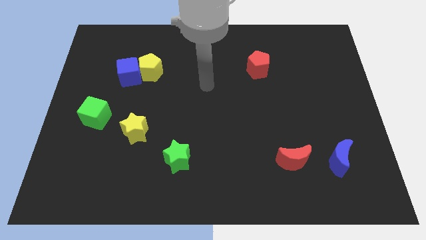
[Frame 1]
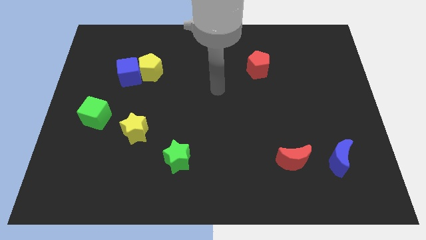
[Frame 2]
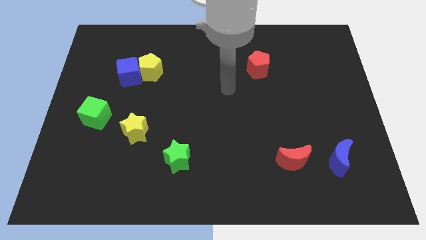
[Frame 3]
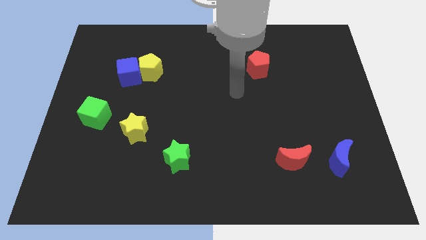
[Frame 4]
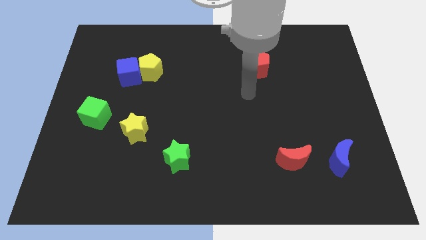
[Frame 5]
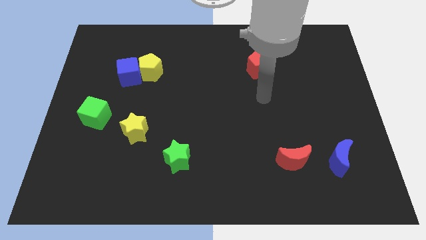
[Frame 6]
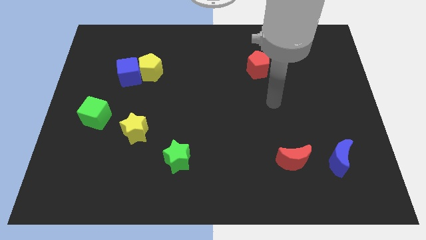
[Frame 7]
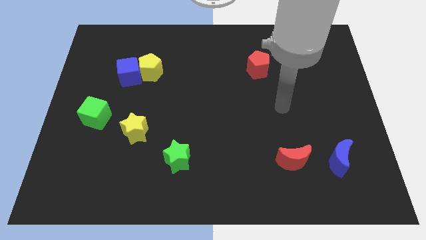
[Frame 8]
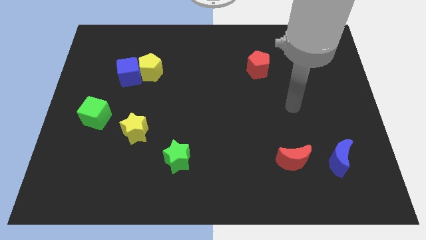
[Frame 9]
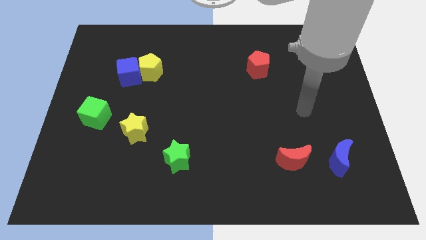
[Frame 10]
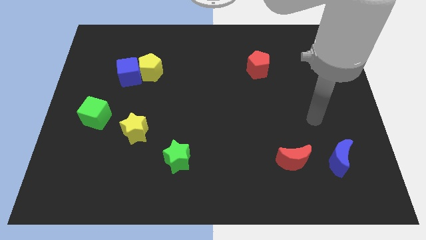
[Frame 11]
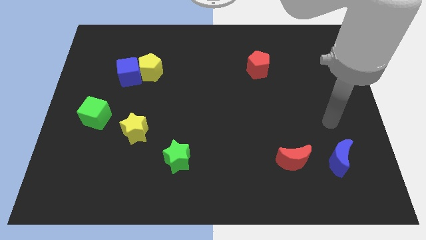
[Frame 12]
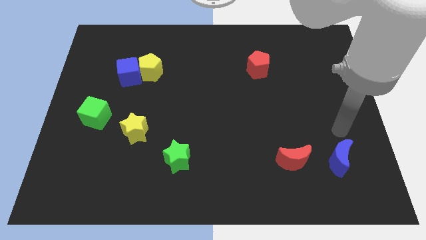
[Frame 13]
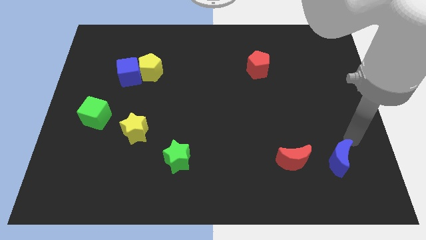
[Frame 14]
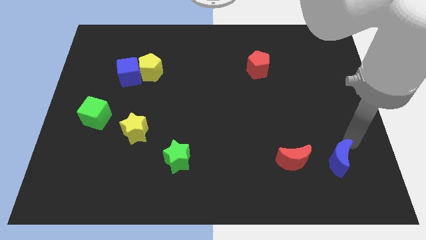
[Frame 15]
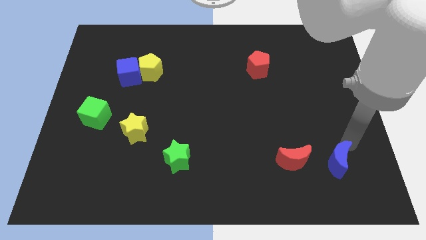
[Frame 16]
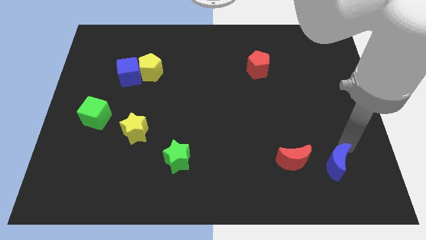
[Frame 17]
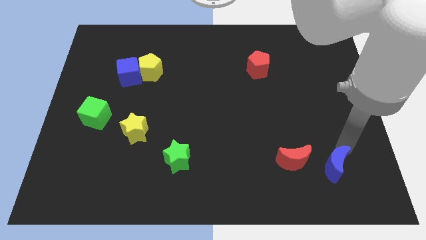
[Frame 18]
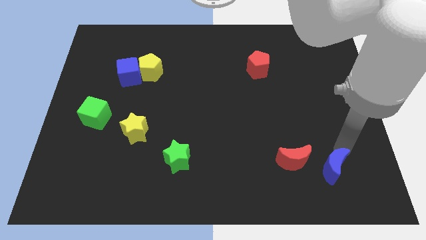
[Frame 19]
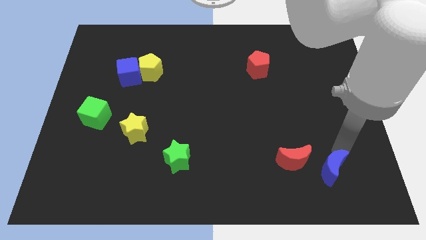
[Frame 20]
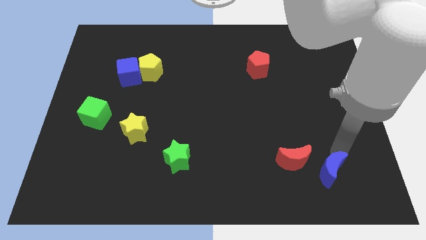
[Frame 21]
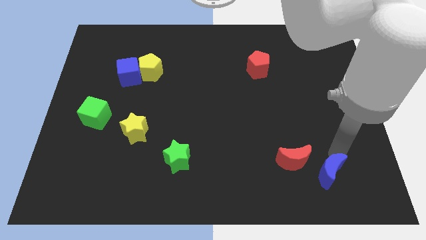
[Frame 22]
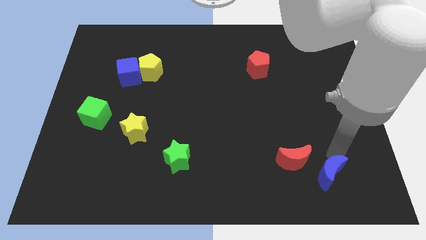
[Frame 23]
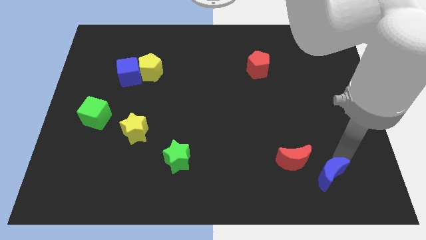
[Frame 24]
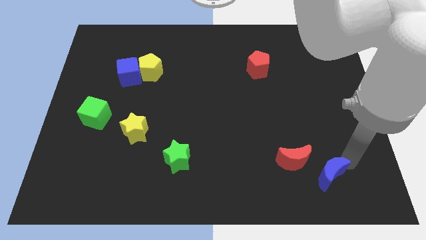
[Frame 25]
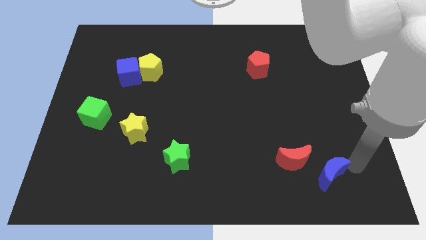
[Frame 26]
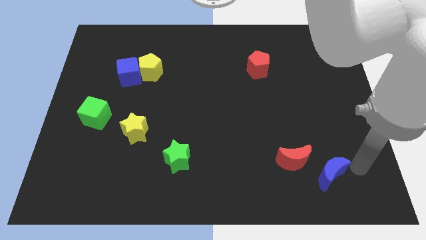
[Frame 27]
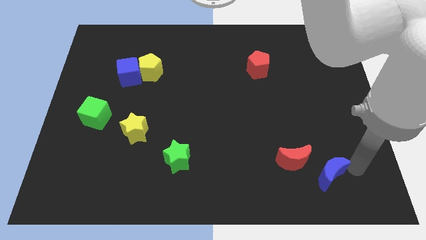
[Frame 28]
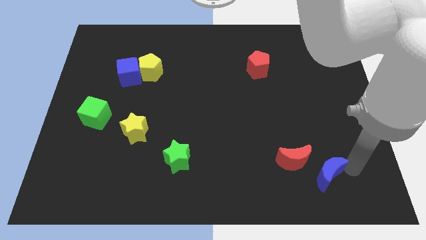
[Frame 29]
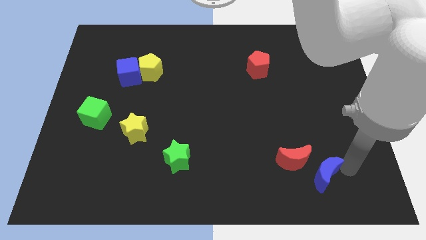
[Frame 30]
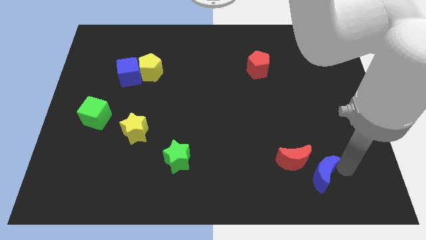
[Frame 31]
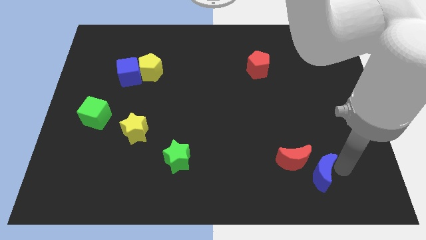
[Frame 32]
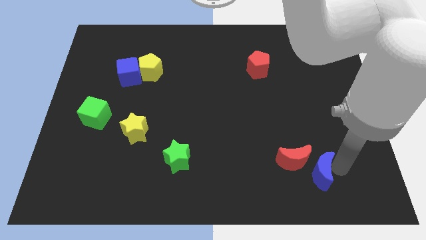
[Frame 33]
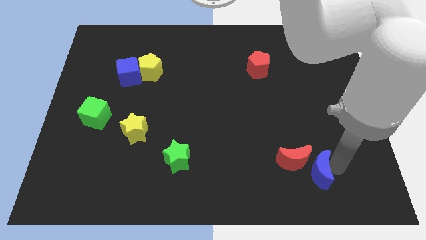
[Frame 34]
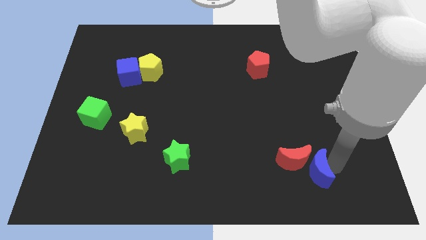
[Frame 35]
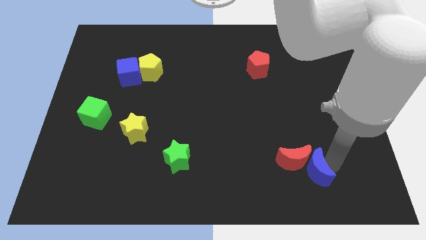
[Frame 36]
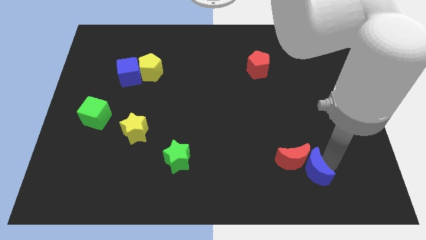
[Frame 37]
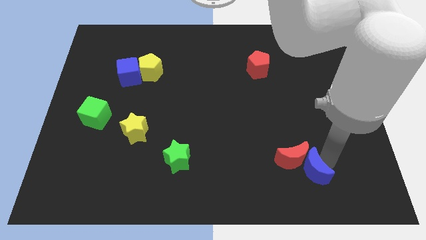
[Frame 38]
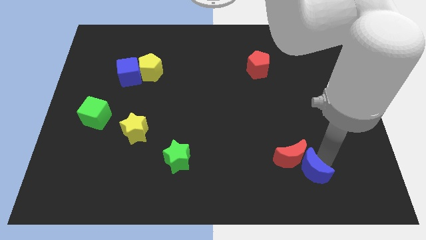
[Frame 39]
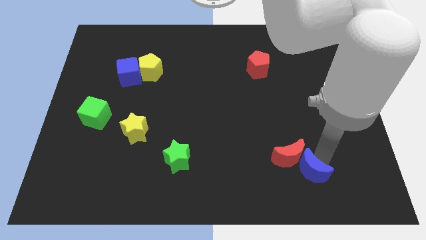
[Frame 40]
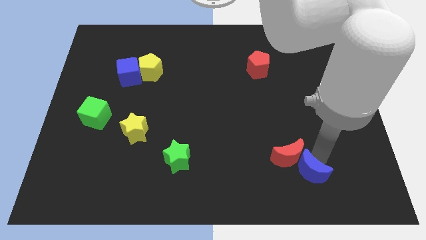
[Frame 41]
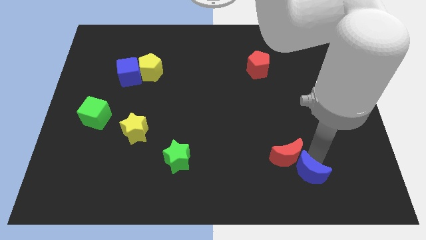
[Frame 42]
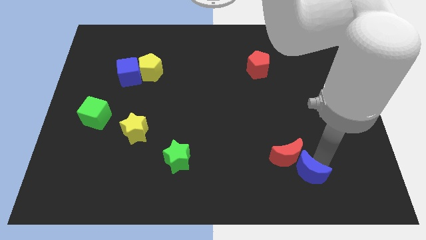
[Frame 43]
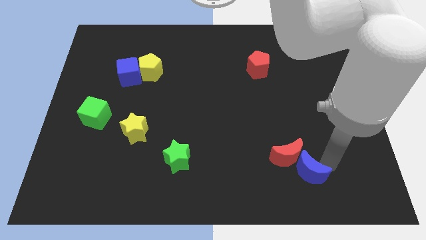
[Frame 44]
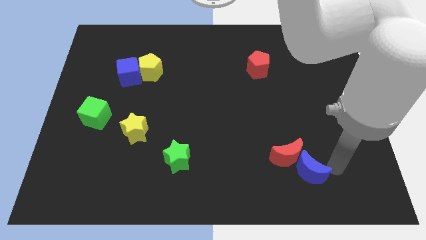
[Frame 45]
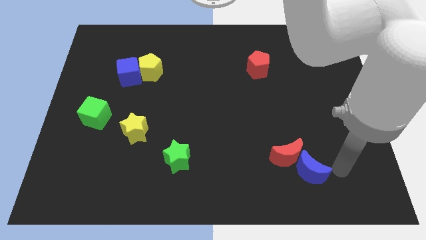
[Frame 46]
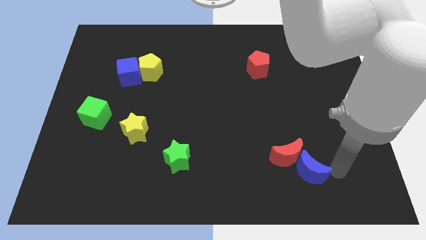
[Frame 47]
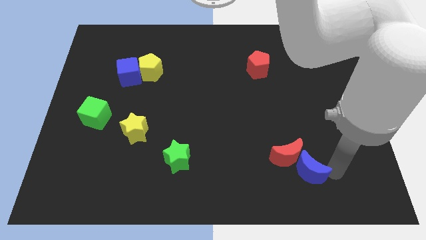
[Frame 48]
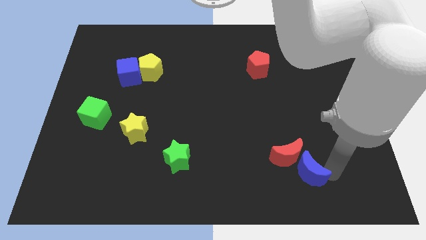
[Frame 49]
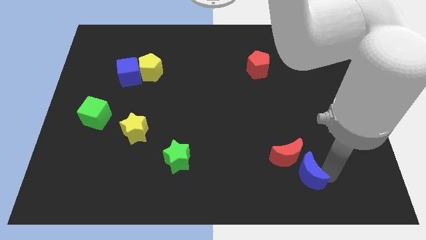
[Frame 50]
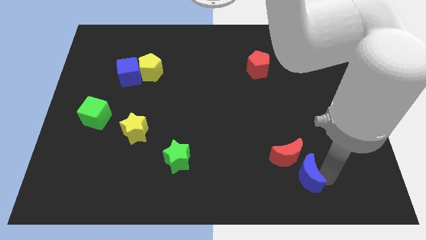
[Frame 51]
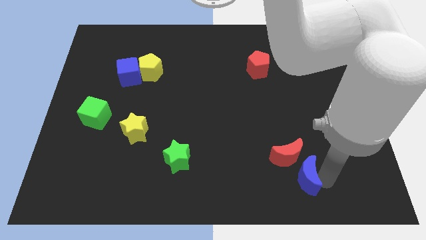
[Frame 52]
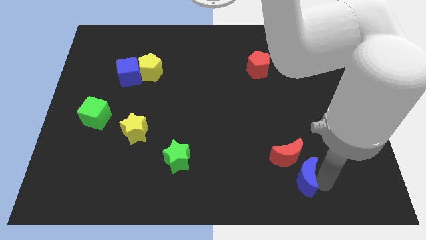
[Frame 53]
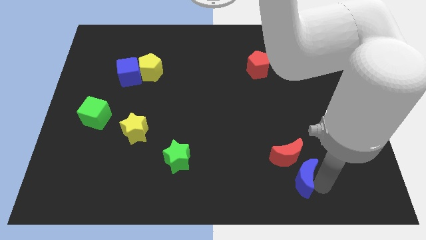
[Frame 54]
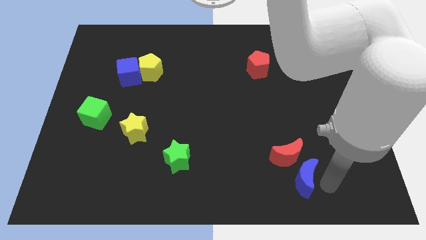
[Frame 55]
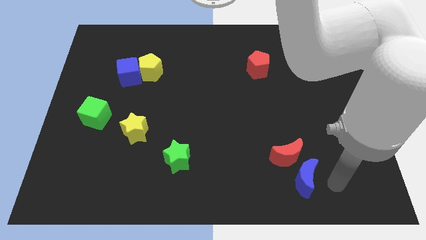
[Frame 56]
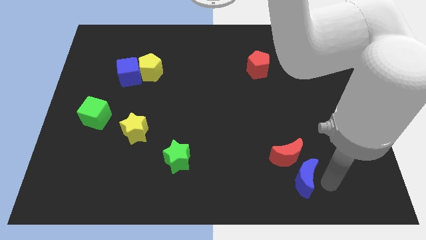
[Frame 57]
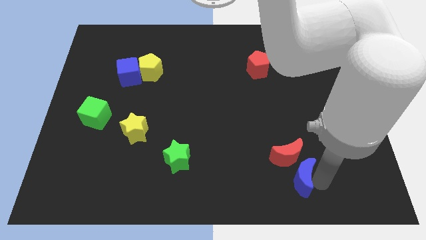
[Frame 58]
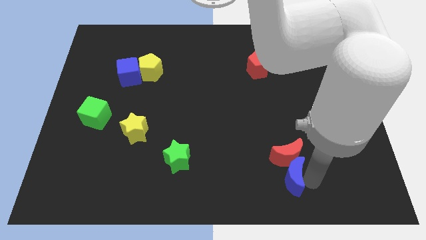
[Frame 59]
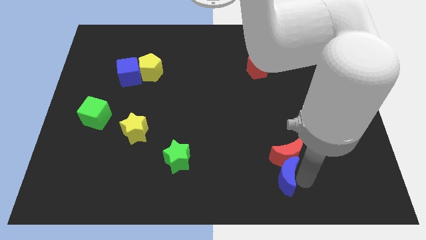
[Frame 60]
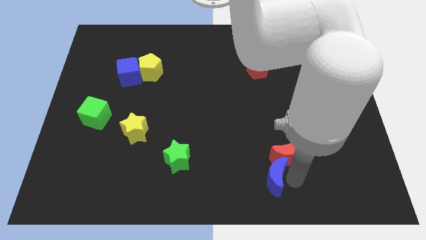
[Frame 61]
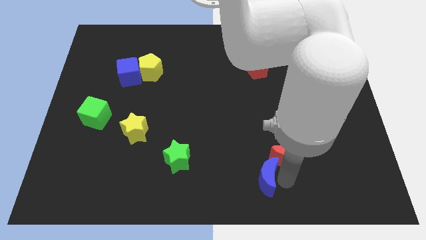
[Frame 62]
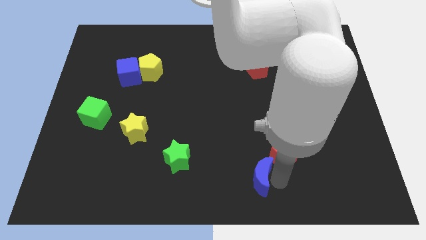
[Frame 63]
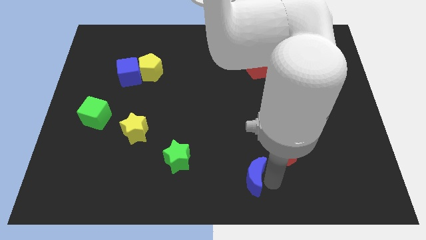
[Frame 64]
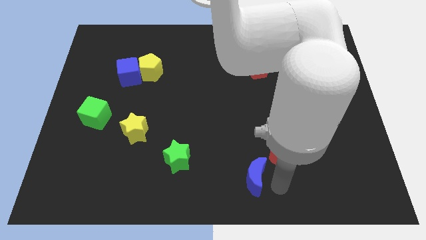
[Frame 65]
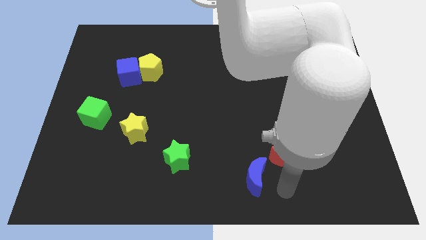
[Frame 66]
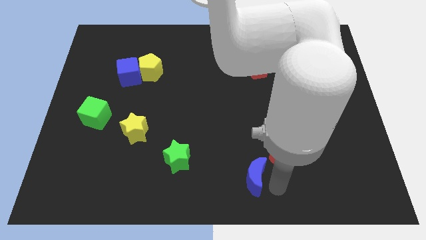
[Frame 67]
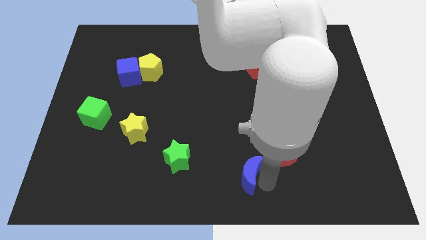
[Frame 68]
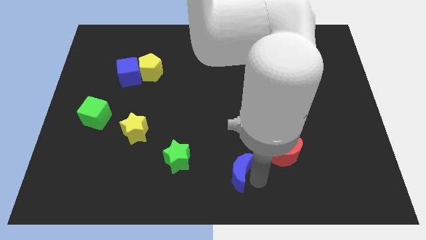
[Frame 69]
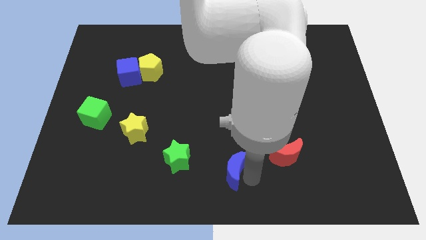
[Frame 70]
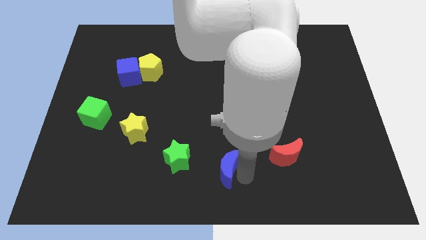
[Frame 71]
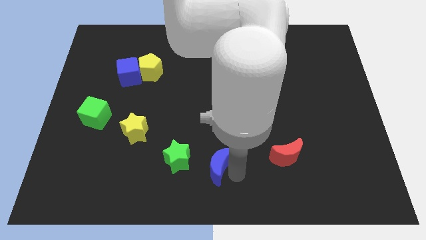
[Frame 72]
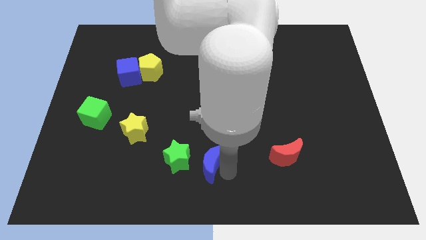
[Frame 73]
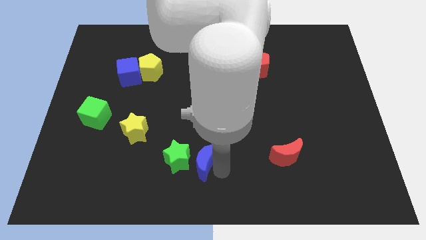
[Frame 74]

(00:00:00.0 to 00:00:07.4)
put the blue moon next to the green star

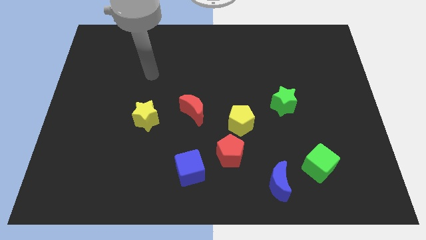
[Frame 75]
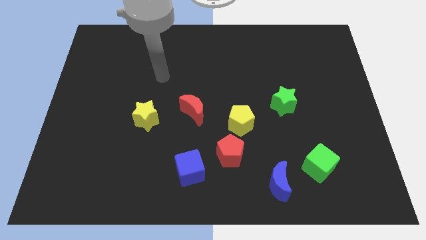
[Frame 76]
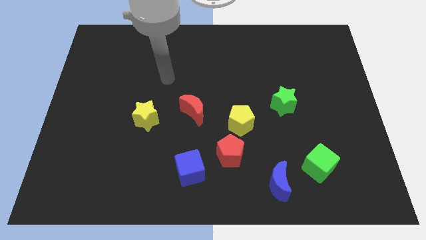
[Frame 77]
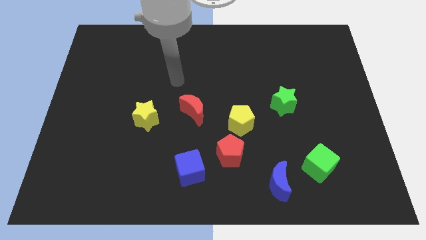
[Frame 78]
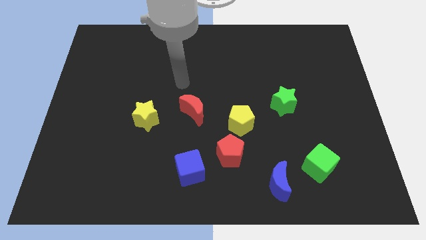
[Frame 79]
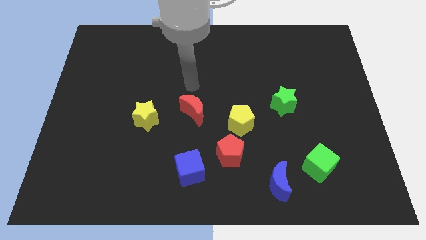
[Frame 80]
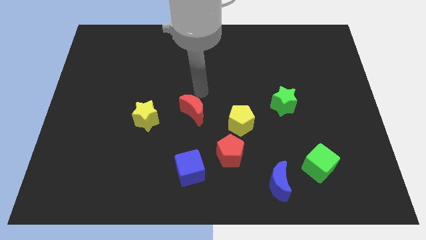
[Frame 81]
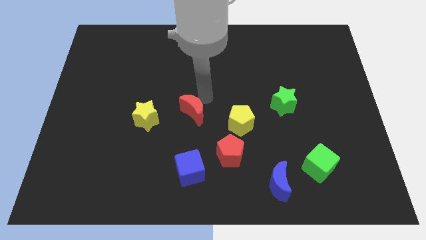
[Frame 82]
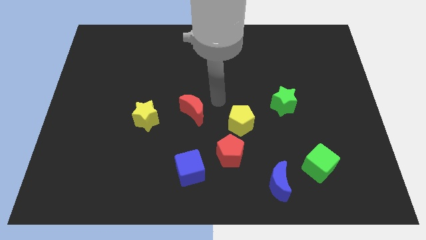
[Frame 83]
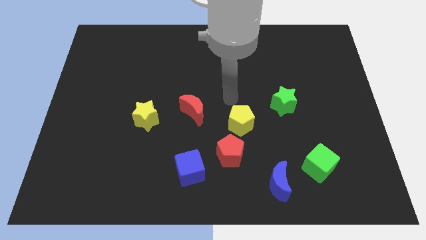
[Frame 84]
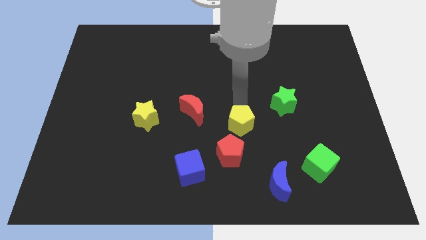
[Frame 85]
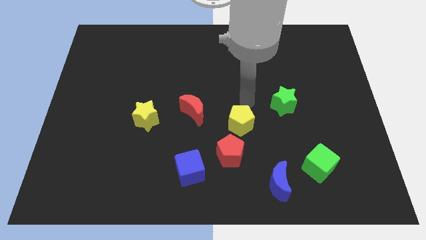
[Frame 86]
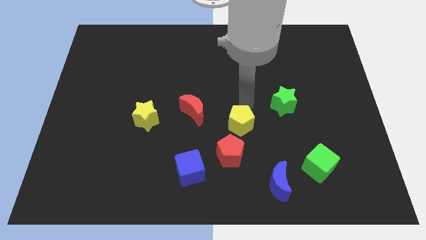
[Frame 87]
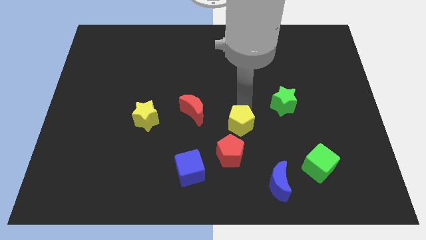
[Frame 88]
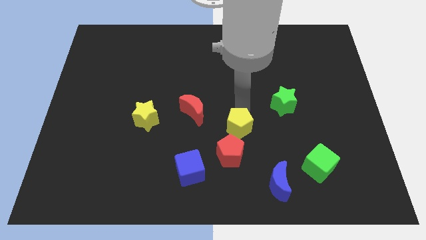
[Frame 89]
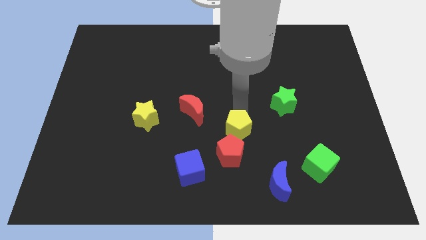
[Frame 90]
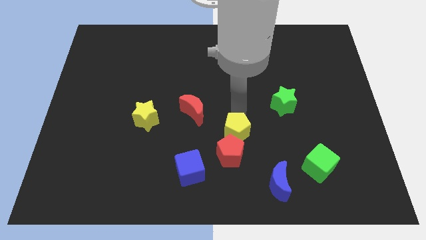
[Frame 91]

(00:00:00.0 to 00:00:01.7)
move the yellow pentagon to the red pentagon
